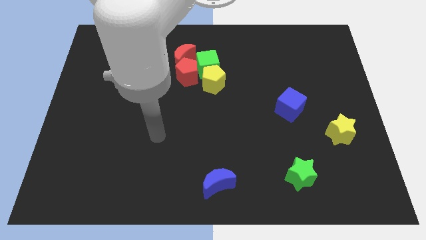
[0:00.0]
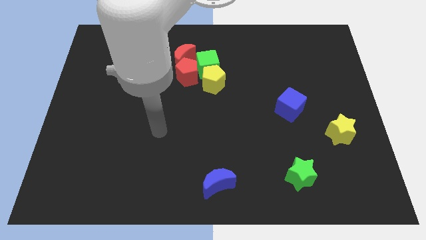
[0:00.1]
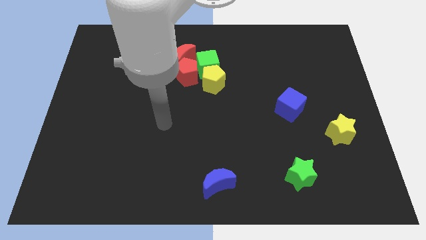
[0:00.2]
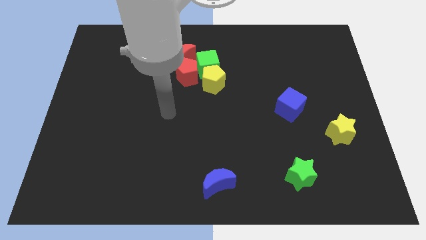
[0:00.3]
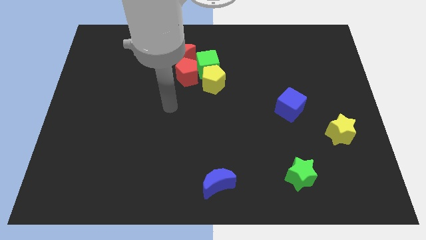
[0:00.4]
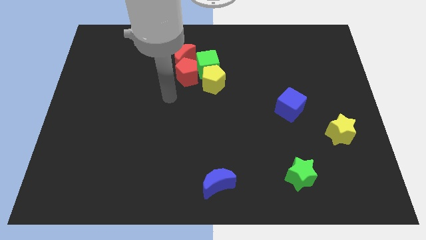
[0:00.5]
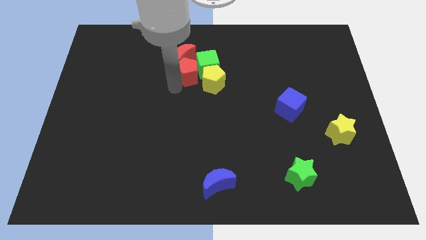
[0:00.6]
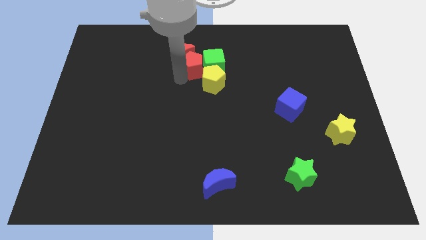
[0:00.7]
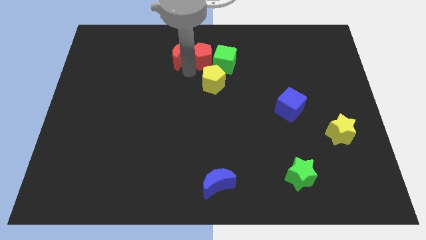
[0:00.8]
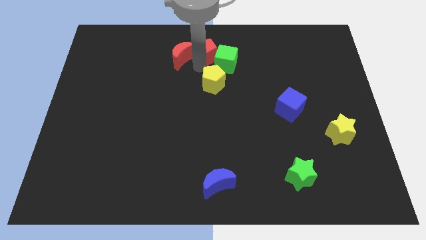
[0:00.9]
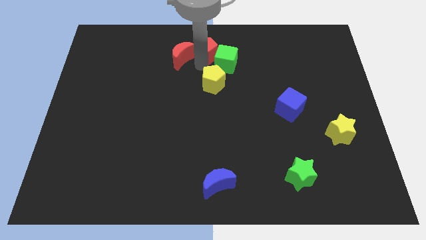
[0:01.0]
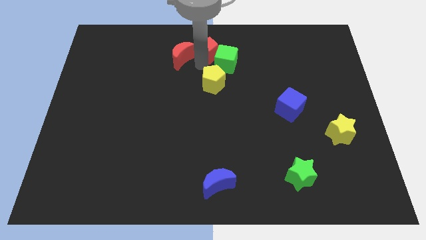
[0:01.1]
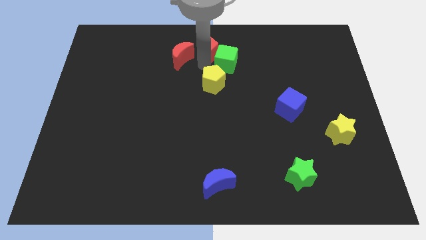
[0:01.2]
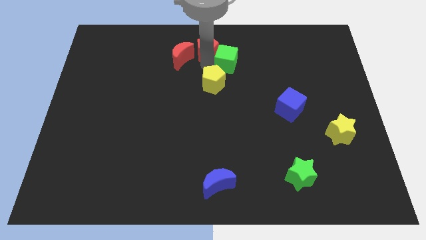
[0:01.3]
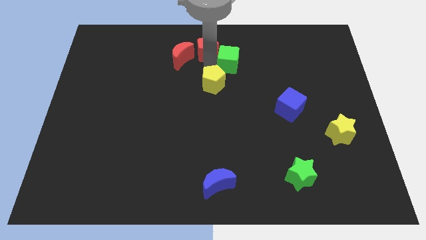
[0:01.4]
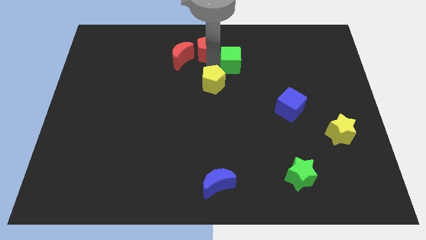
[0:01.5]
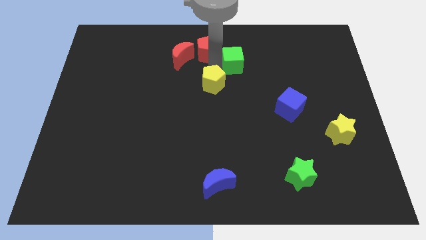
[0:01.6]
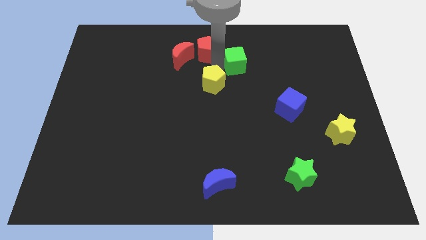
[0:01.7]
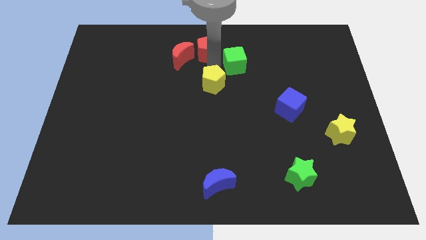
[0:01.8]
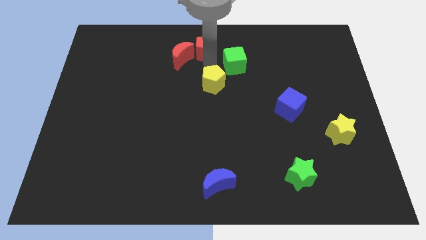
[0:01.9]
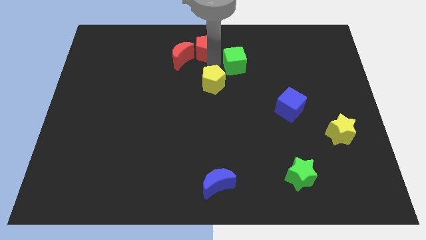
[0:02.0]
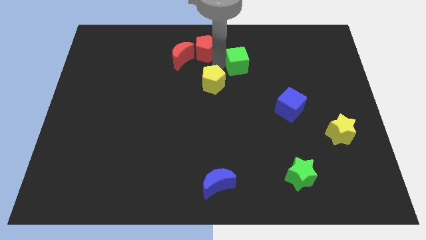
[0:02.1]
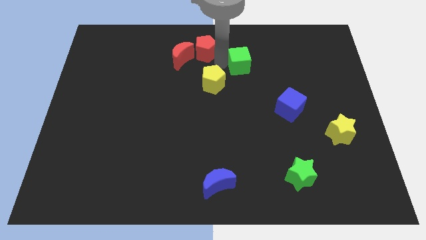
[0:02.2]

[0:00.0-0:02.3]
pull the green cube apart from the clump

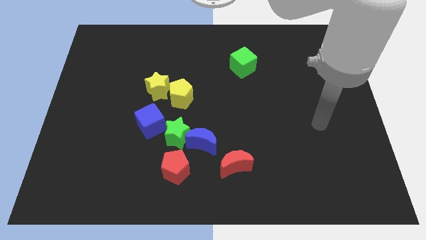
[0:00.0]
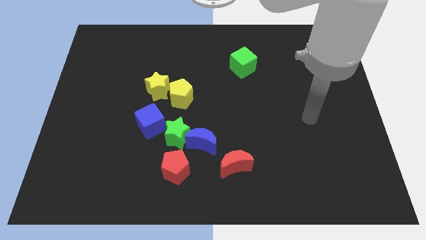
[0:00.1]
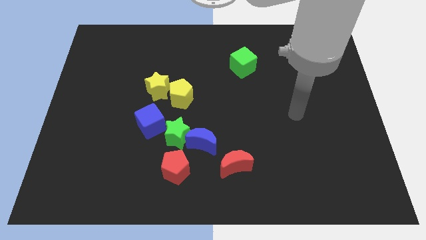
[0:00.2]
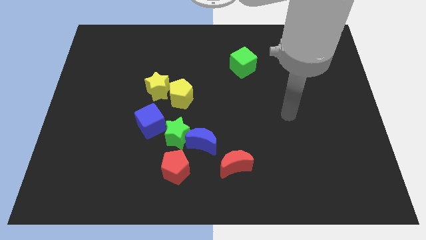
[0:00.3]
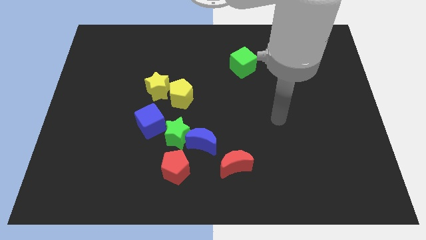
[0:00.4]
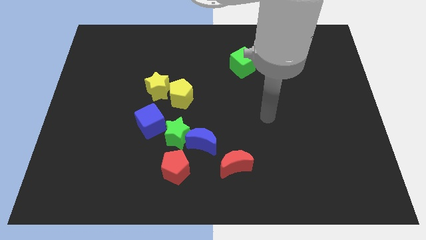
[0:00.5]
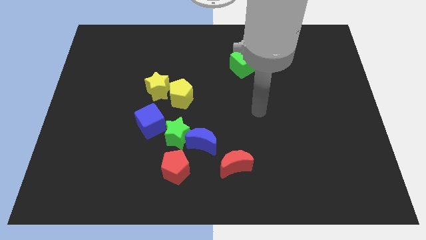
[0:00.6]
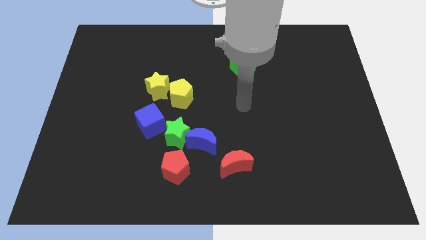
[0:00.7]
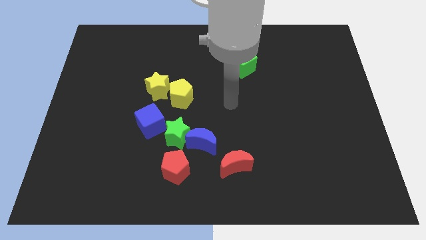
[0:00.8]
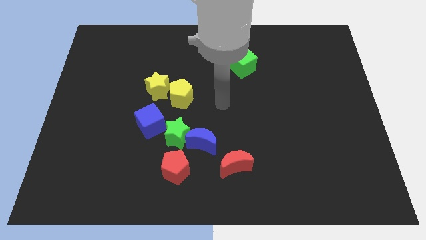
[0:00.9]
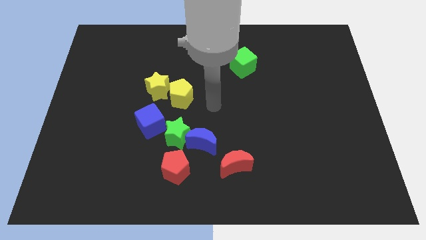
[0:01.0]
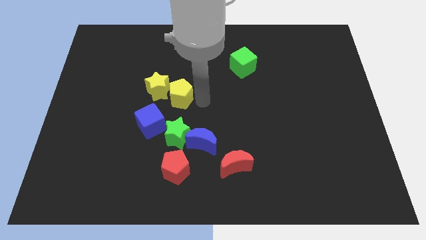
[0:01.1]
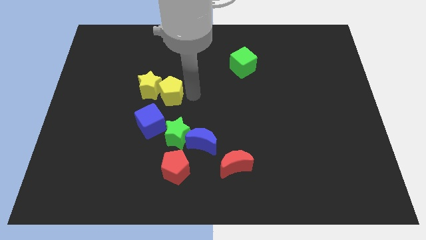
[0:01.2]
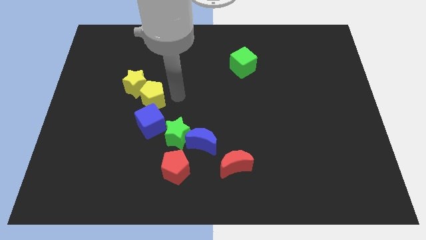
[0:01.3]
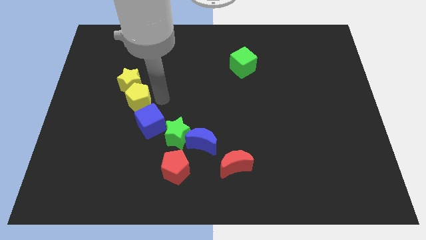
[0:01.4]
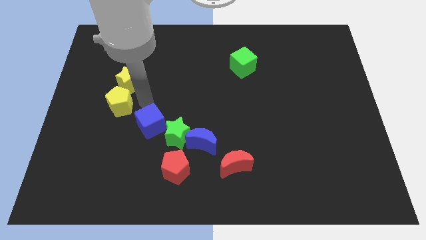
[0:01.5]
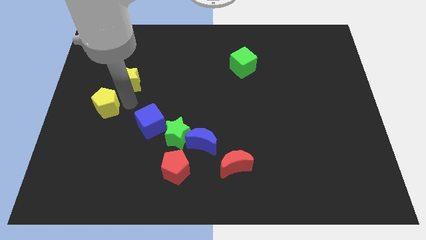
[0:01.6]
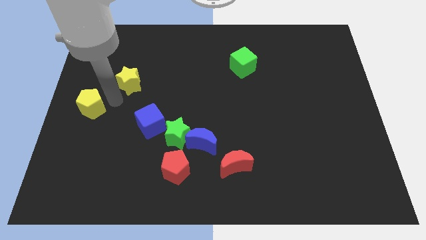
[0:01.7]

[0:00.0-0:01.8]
pull the yellow star apart from the yellow pentagon

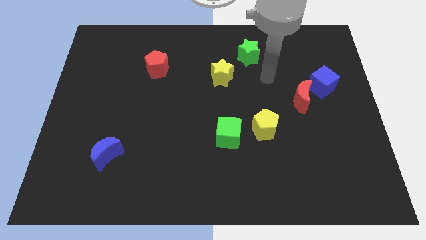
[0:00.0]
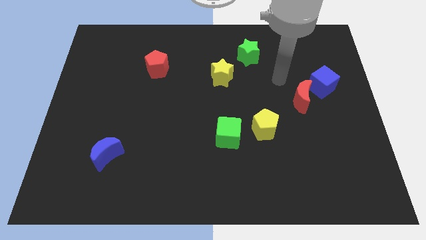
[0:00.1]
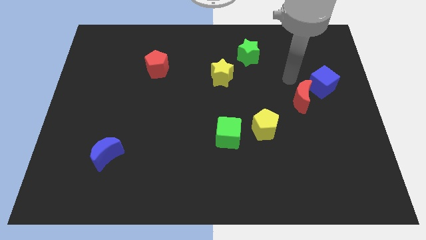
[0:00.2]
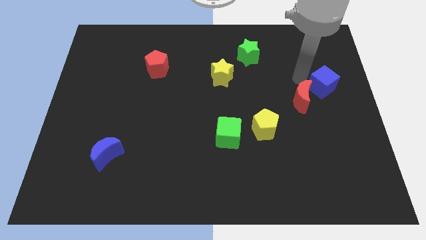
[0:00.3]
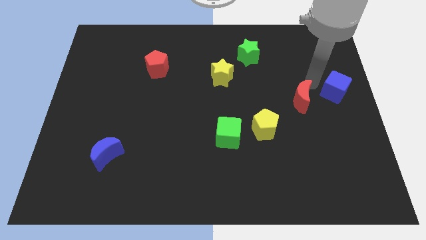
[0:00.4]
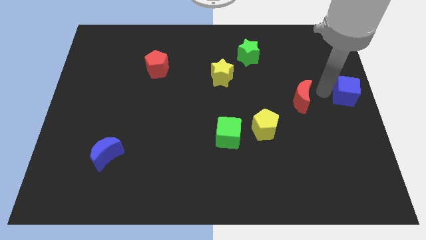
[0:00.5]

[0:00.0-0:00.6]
move the red moon away from the blue cube

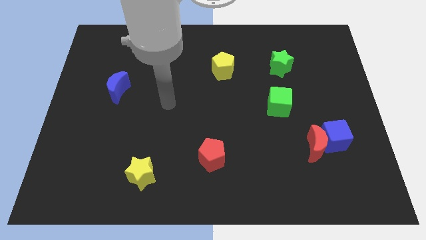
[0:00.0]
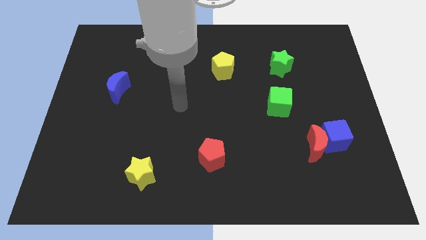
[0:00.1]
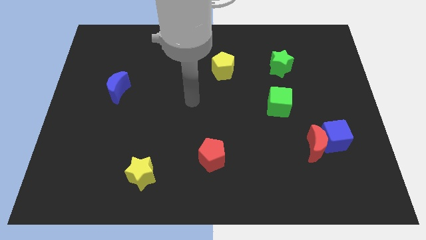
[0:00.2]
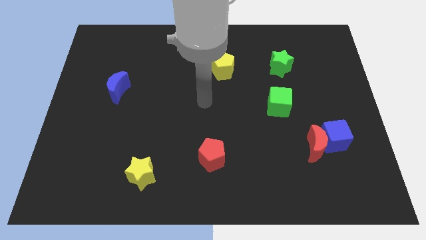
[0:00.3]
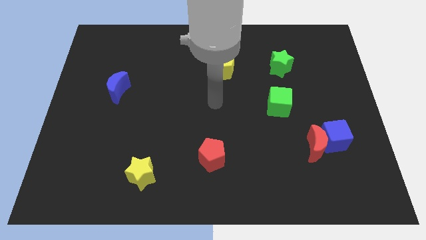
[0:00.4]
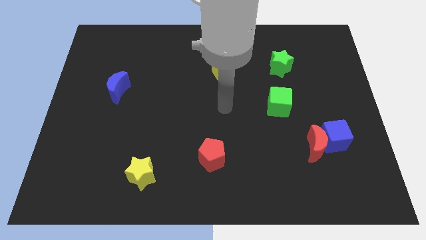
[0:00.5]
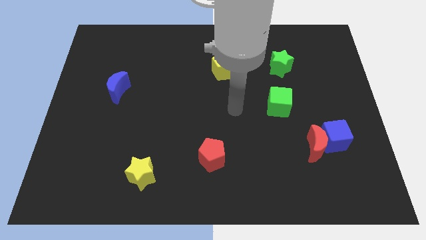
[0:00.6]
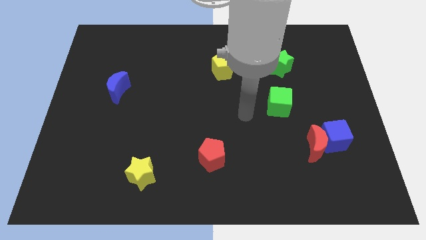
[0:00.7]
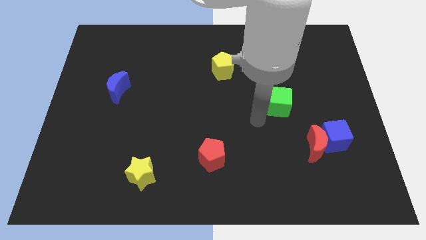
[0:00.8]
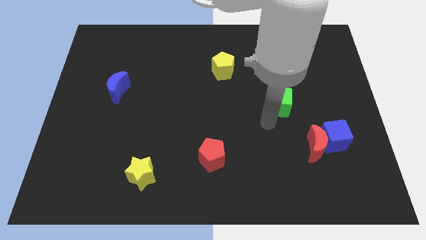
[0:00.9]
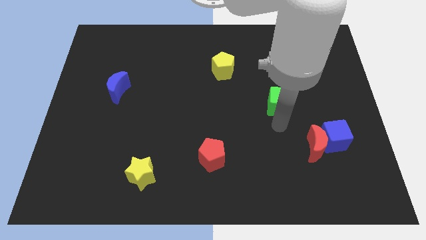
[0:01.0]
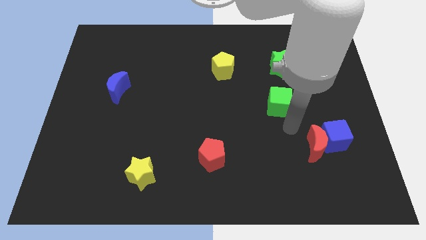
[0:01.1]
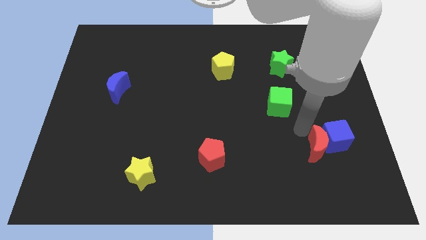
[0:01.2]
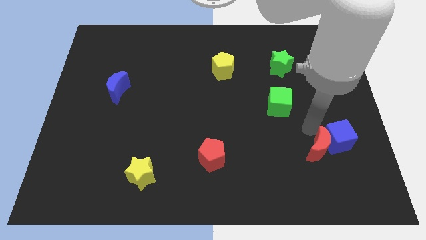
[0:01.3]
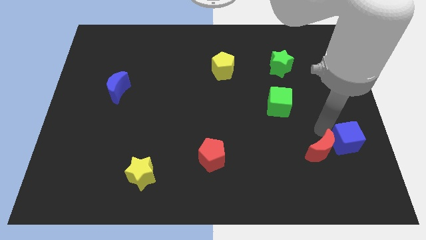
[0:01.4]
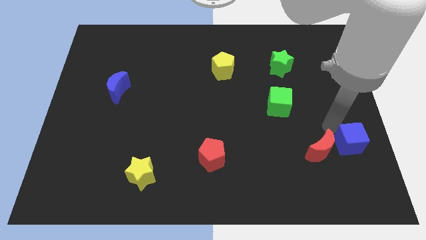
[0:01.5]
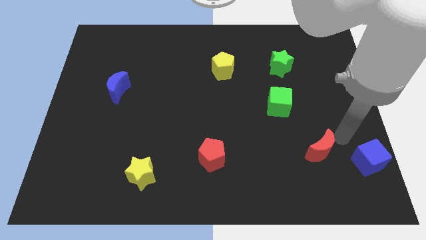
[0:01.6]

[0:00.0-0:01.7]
pull the red moon apart from the blue cube

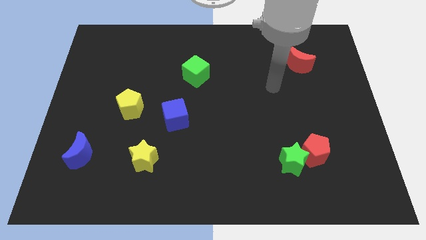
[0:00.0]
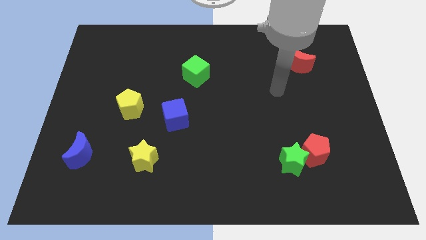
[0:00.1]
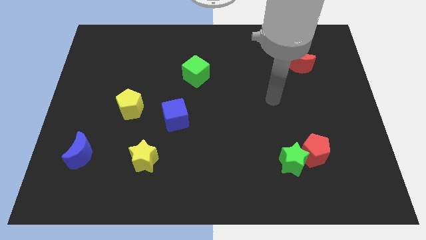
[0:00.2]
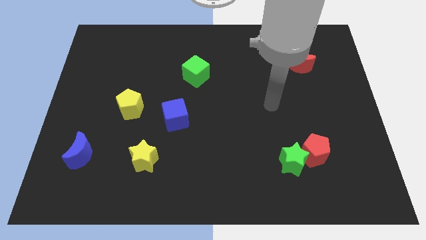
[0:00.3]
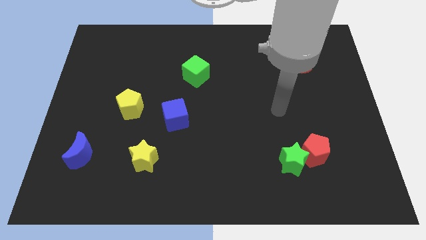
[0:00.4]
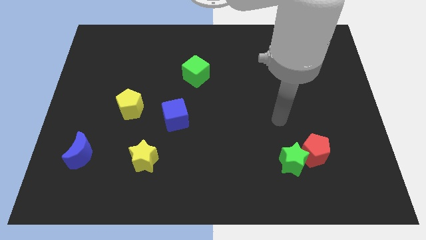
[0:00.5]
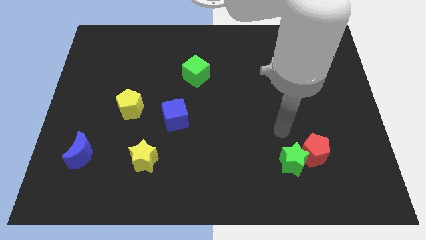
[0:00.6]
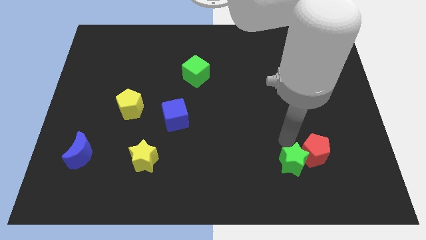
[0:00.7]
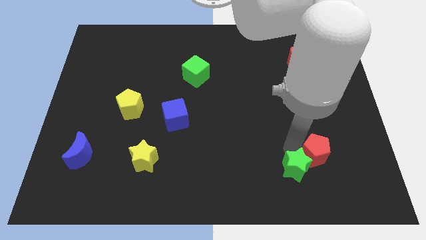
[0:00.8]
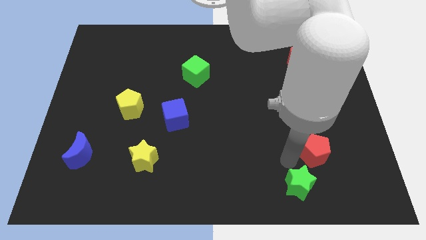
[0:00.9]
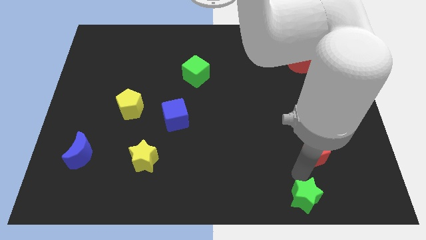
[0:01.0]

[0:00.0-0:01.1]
separate the red pentagon from the green star

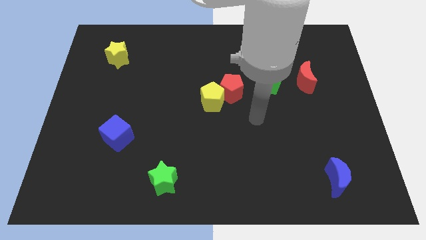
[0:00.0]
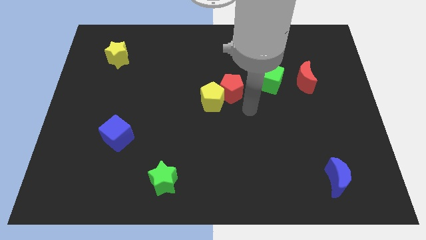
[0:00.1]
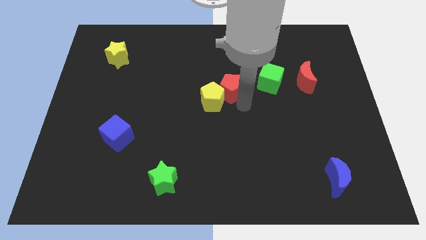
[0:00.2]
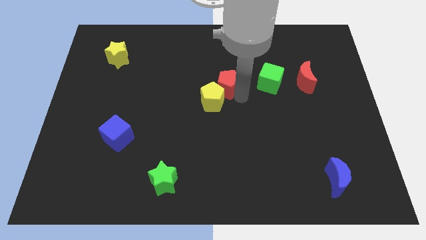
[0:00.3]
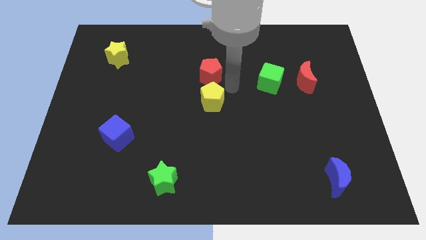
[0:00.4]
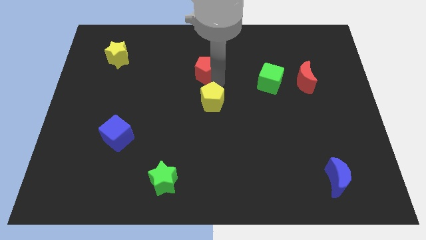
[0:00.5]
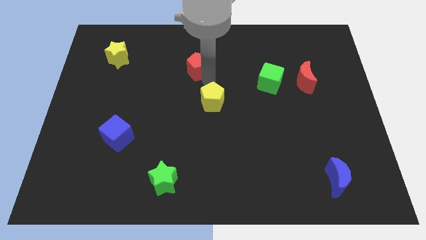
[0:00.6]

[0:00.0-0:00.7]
separate the yellow pentagon from the red pentagon

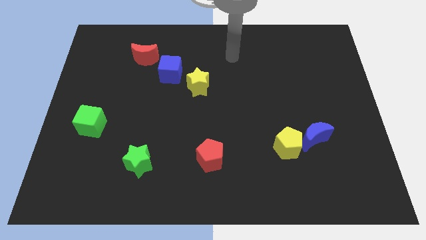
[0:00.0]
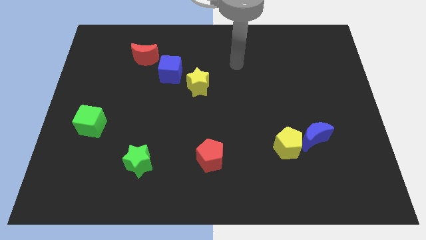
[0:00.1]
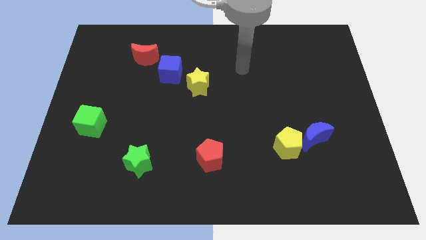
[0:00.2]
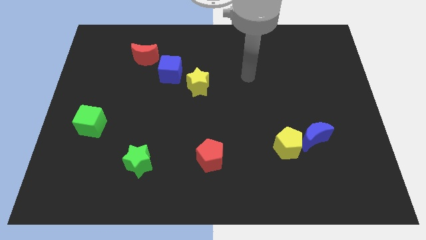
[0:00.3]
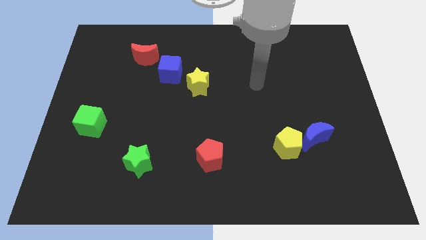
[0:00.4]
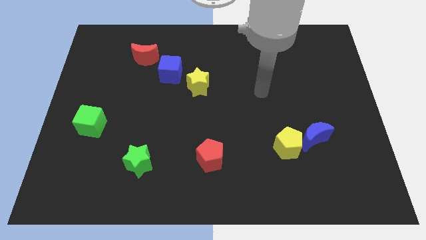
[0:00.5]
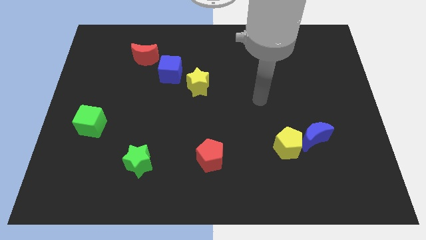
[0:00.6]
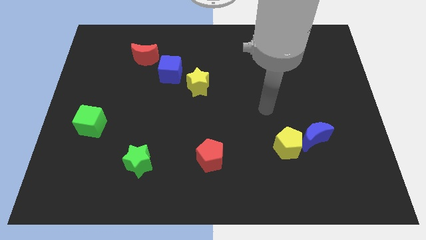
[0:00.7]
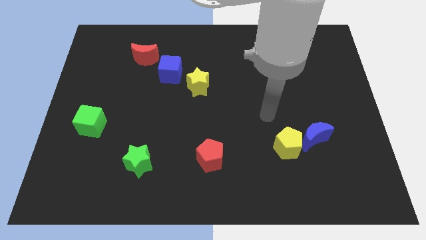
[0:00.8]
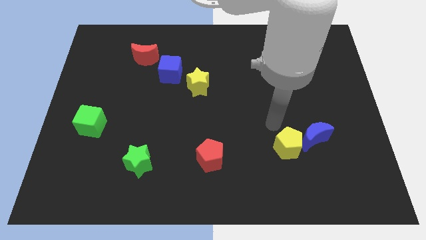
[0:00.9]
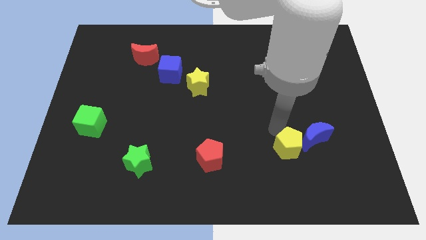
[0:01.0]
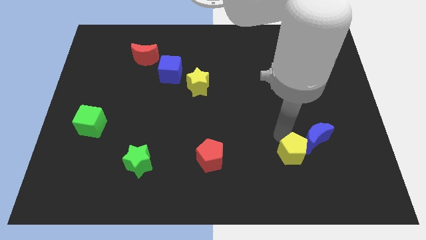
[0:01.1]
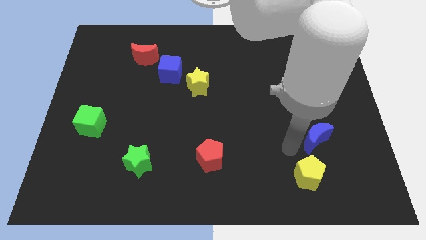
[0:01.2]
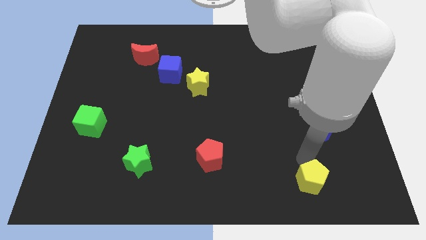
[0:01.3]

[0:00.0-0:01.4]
separate the blue moon from the yellow pentagon
